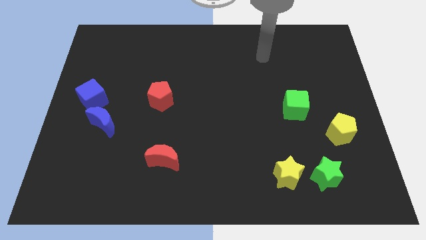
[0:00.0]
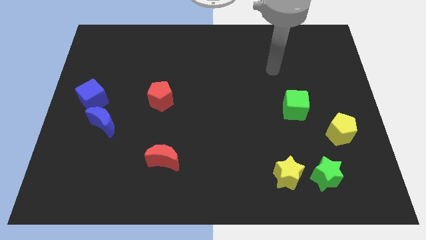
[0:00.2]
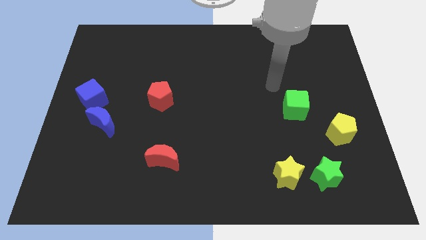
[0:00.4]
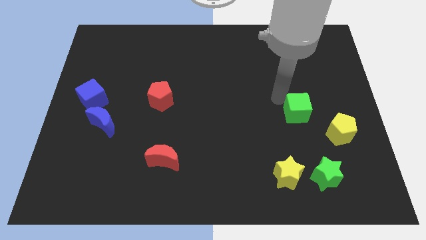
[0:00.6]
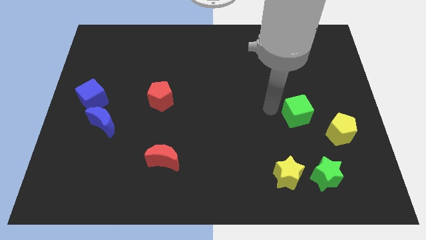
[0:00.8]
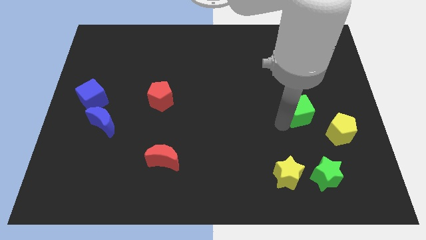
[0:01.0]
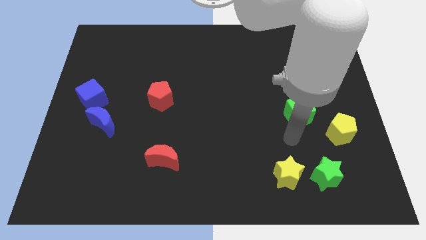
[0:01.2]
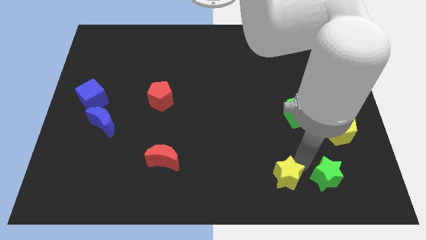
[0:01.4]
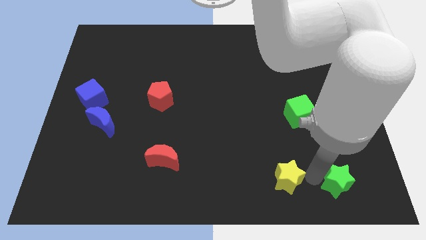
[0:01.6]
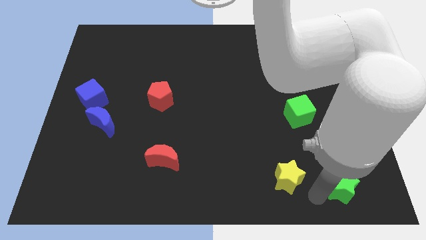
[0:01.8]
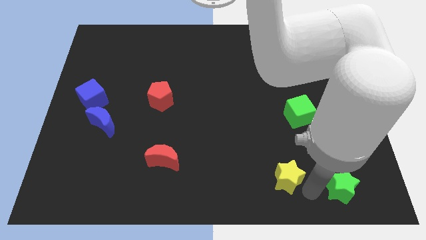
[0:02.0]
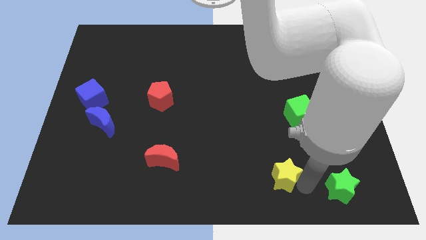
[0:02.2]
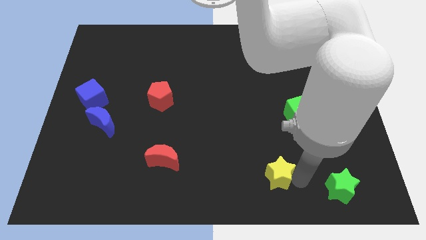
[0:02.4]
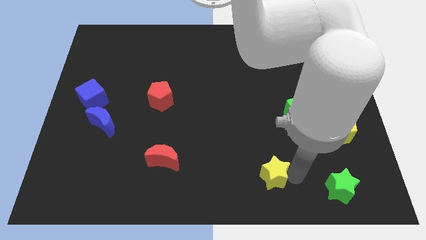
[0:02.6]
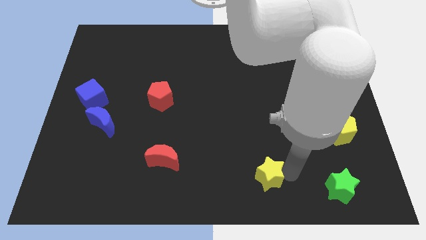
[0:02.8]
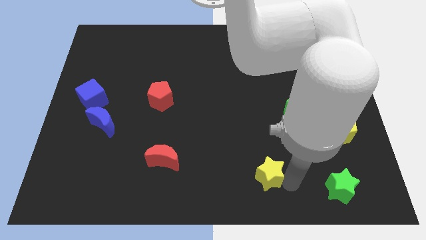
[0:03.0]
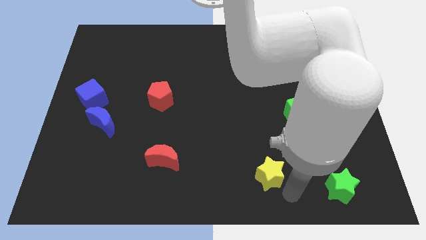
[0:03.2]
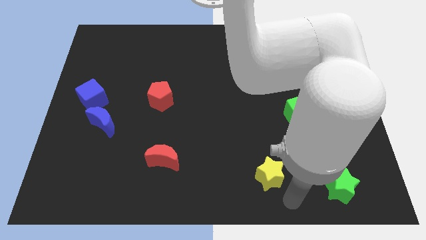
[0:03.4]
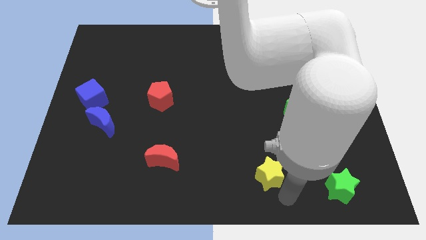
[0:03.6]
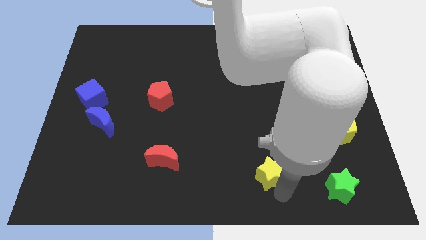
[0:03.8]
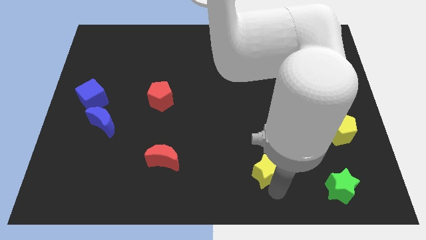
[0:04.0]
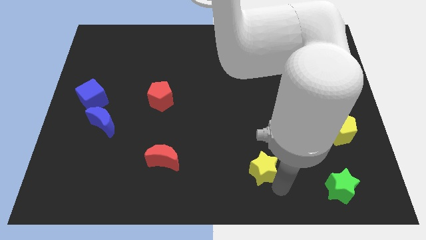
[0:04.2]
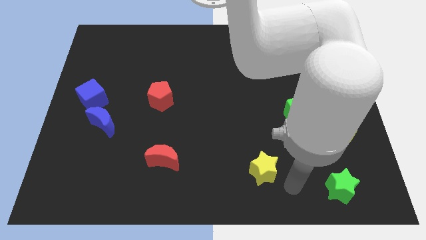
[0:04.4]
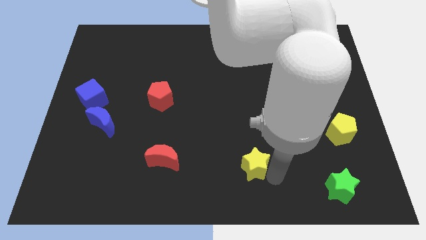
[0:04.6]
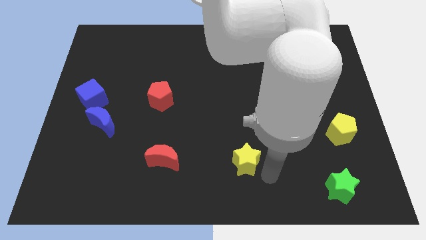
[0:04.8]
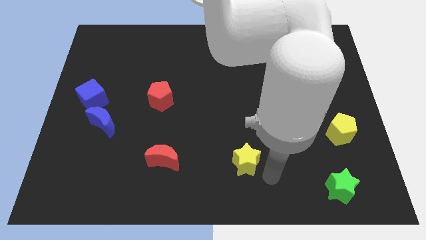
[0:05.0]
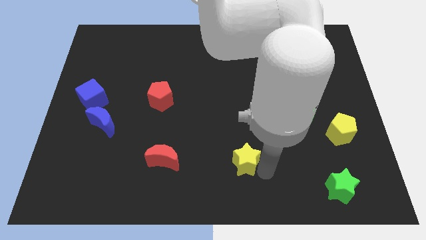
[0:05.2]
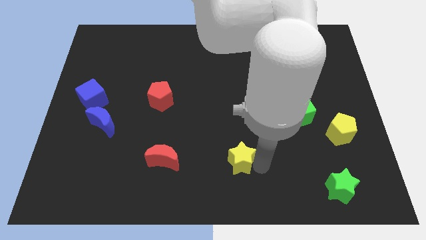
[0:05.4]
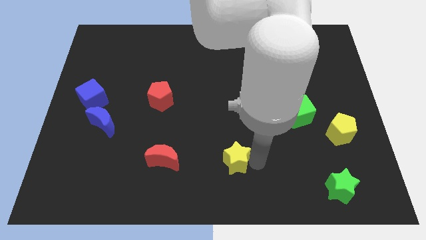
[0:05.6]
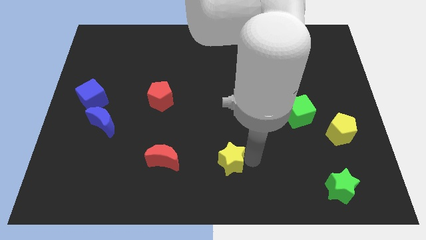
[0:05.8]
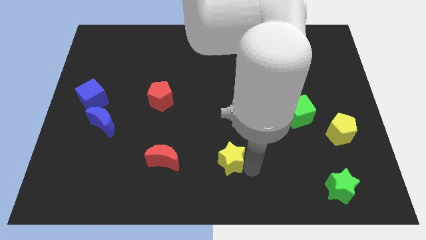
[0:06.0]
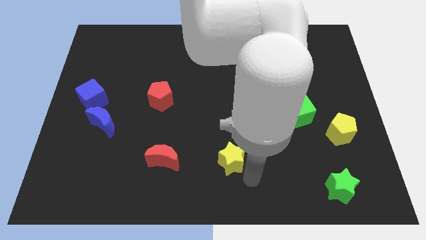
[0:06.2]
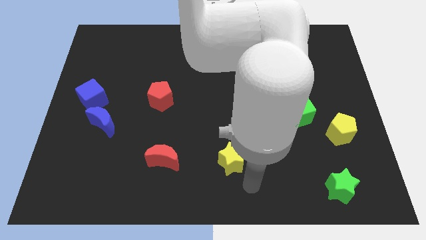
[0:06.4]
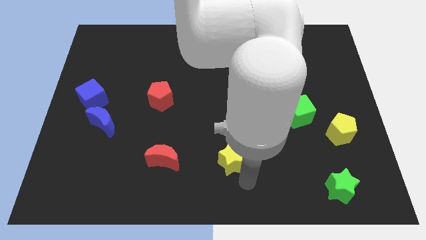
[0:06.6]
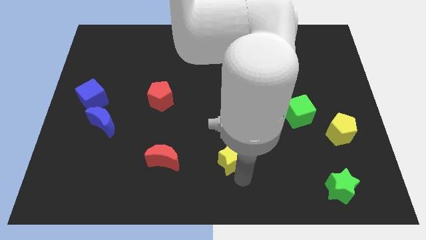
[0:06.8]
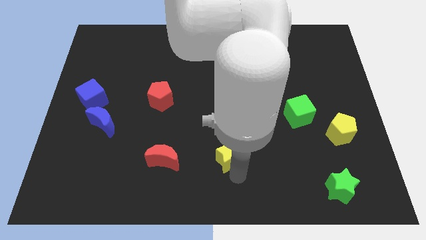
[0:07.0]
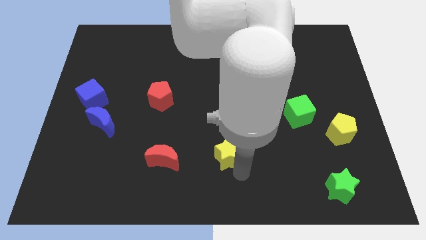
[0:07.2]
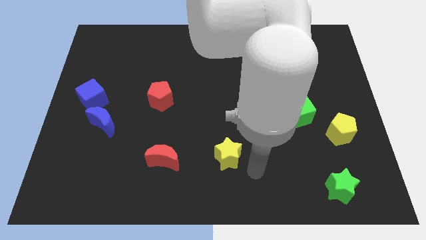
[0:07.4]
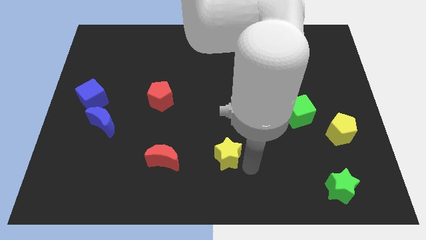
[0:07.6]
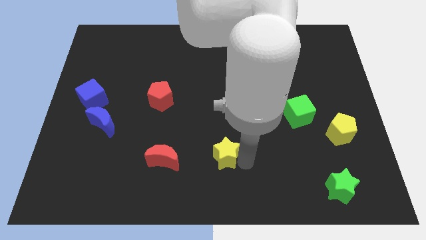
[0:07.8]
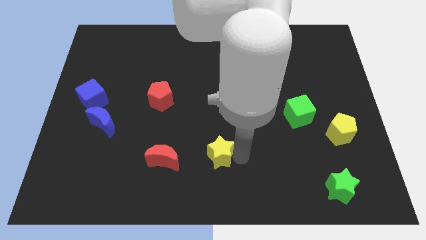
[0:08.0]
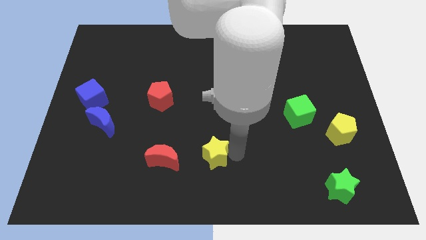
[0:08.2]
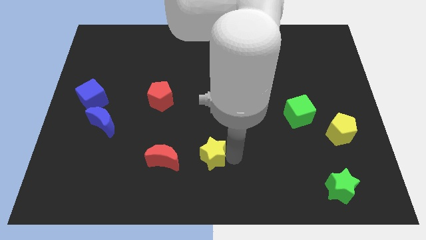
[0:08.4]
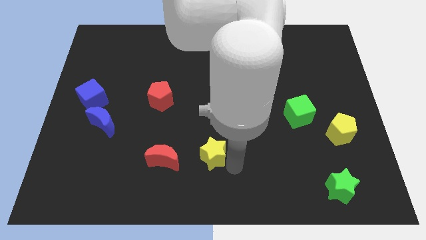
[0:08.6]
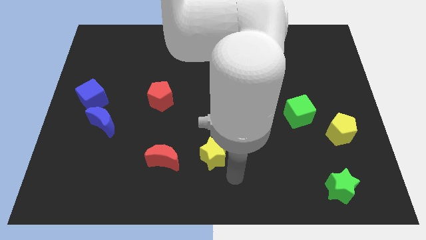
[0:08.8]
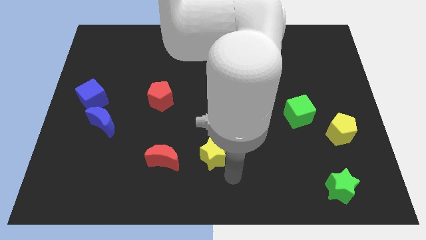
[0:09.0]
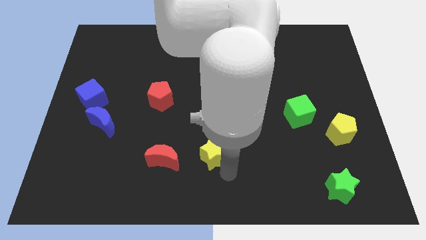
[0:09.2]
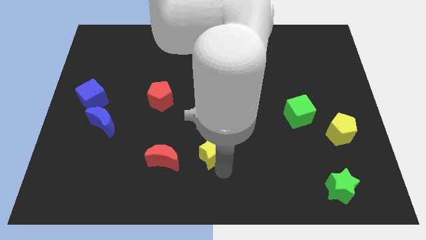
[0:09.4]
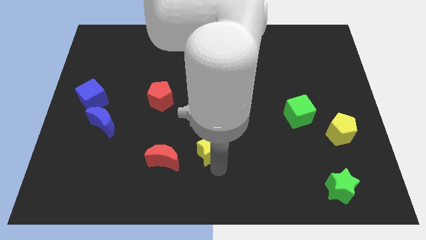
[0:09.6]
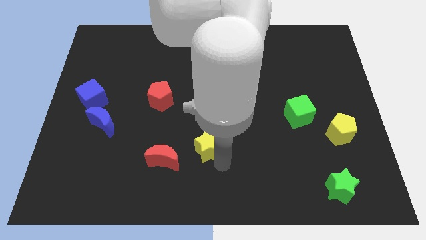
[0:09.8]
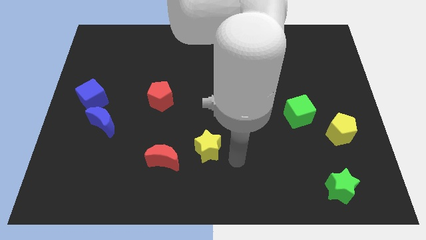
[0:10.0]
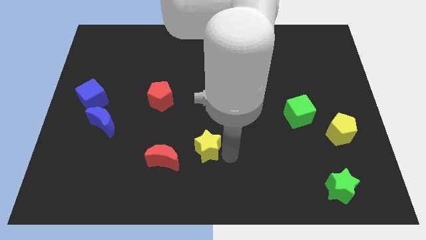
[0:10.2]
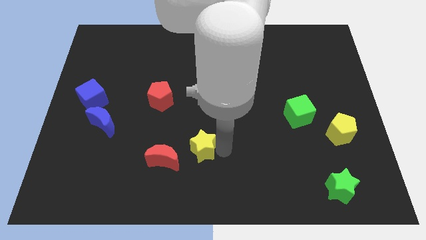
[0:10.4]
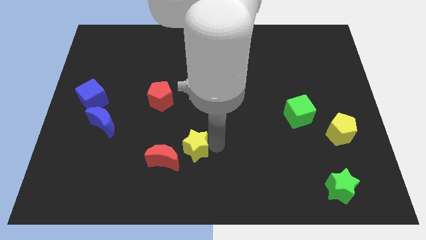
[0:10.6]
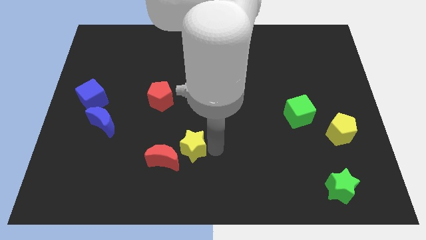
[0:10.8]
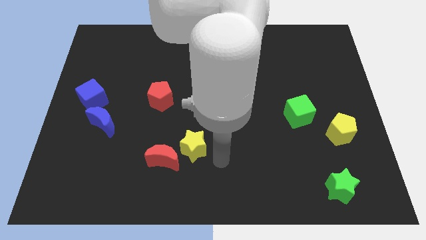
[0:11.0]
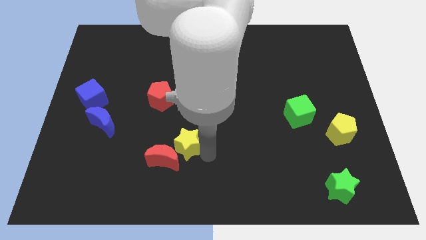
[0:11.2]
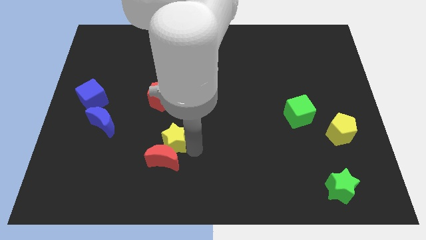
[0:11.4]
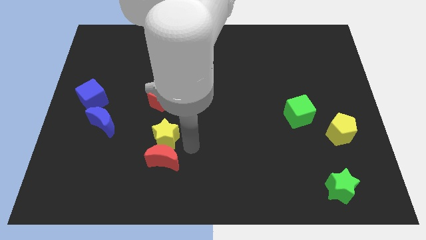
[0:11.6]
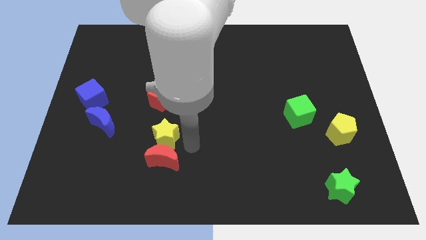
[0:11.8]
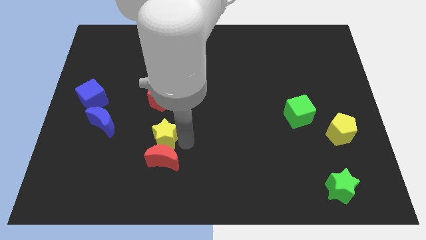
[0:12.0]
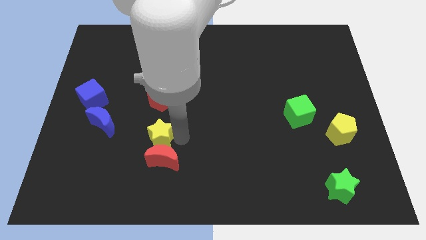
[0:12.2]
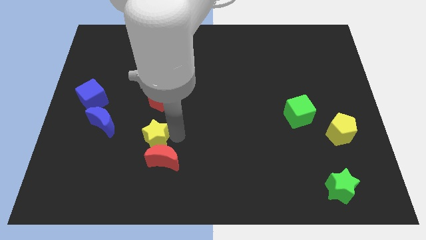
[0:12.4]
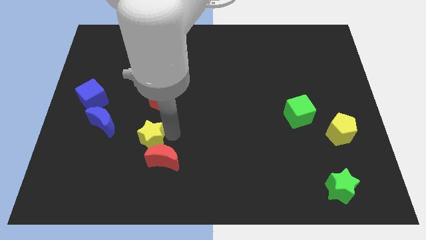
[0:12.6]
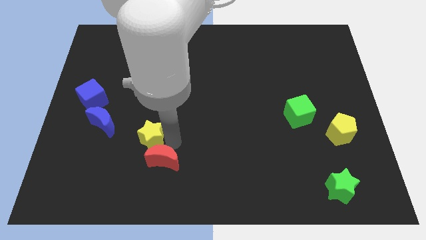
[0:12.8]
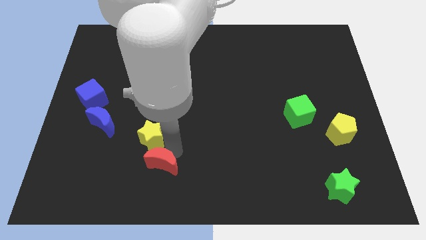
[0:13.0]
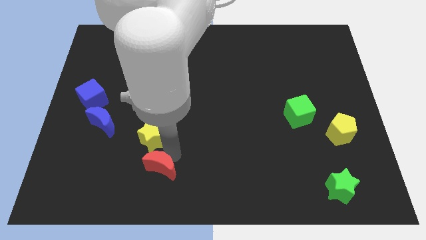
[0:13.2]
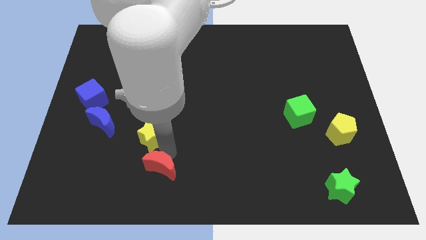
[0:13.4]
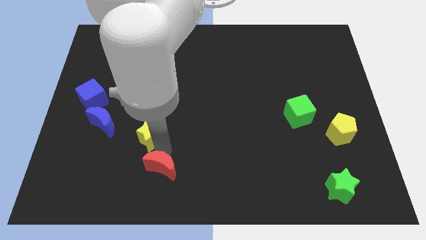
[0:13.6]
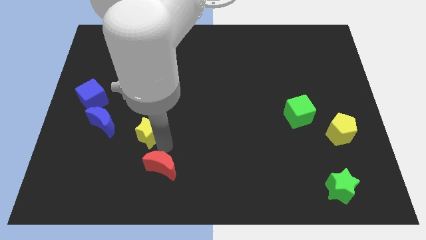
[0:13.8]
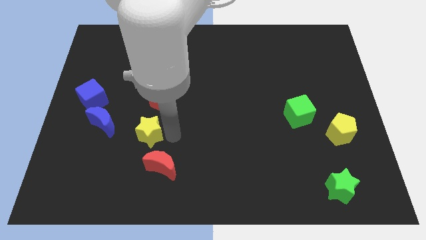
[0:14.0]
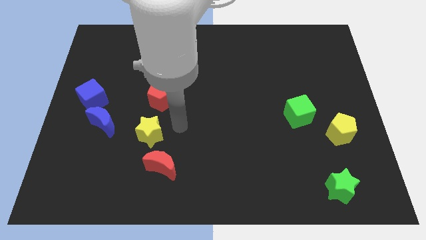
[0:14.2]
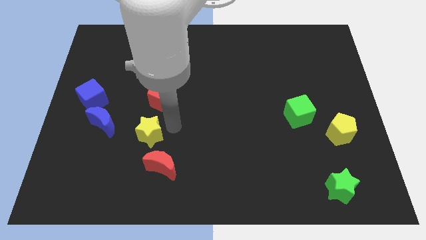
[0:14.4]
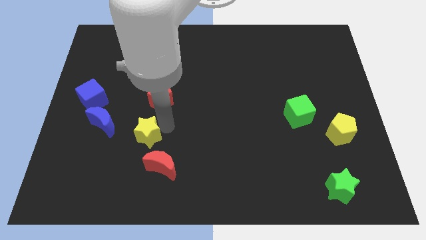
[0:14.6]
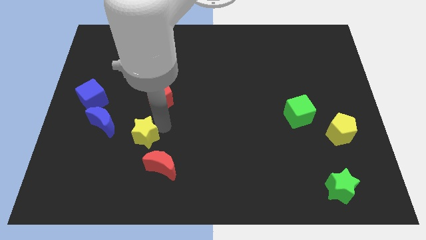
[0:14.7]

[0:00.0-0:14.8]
move the yellow star to the bottom right side of the blue moon
